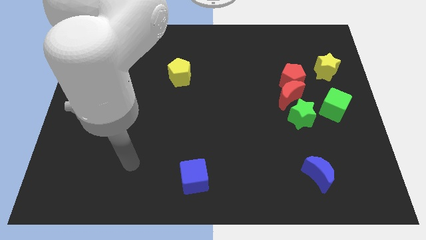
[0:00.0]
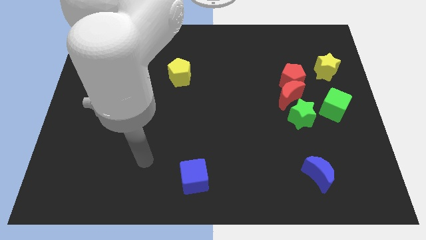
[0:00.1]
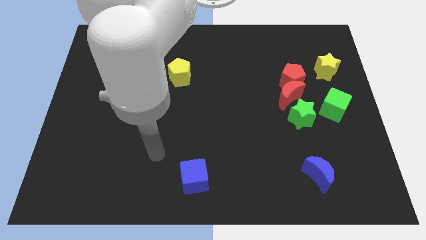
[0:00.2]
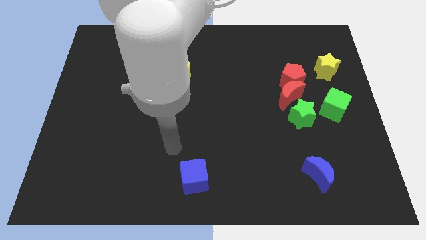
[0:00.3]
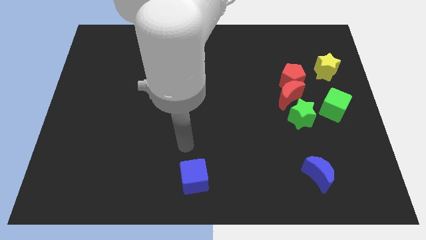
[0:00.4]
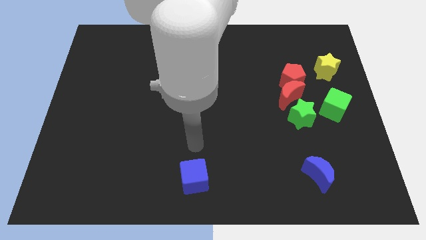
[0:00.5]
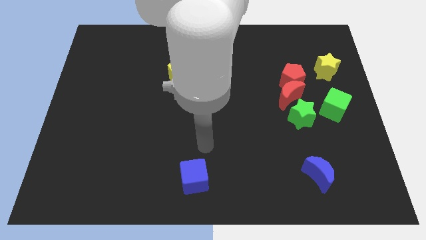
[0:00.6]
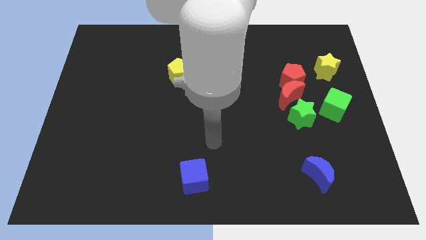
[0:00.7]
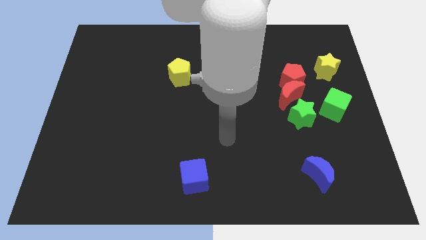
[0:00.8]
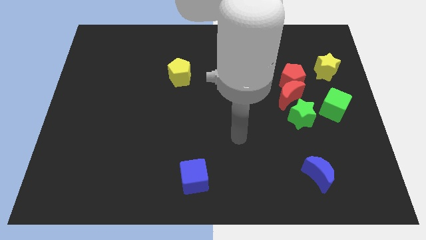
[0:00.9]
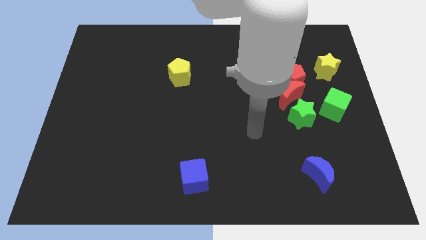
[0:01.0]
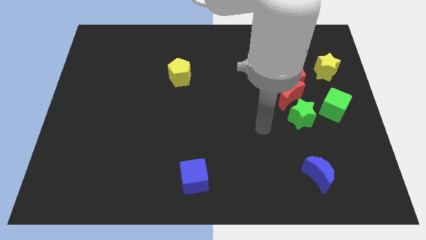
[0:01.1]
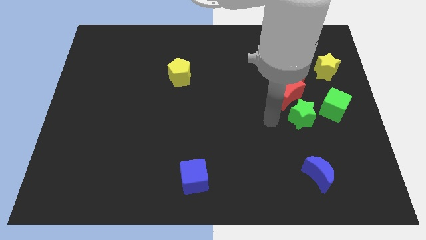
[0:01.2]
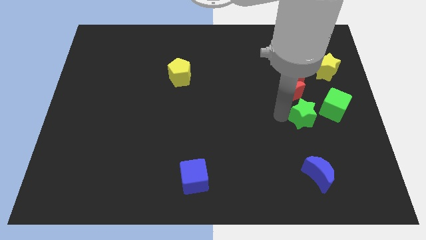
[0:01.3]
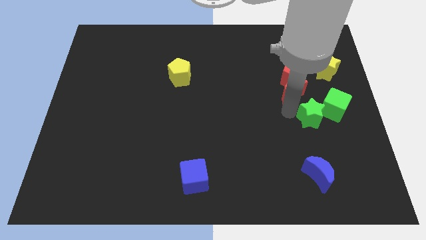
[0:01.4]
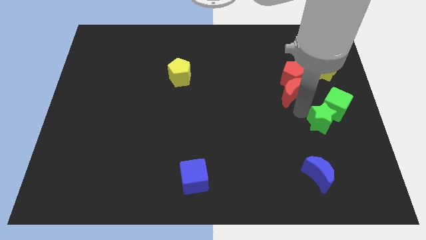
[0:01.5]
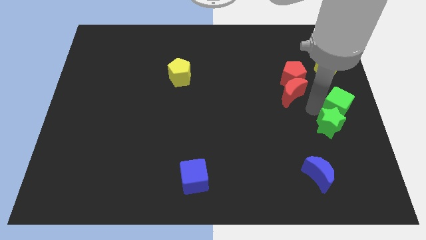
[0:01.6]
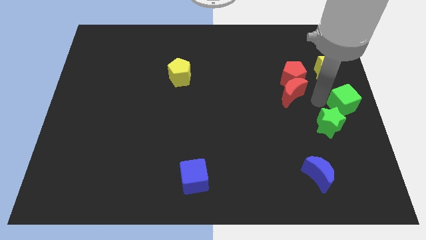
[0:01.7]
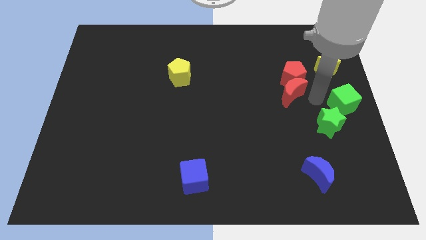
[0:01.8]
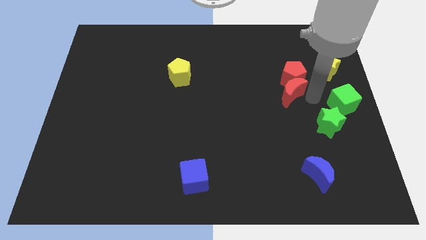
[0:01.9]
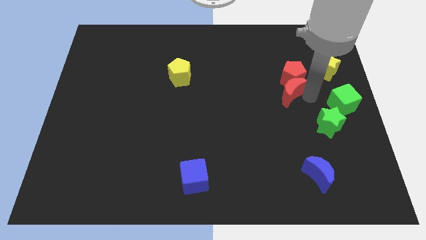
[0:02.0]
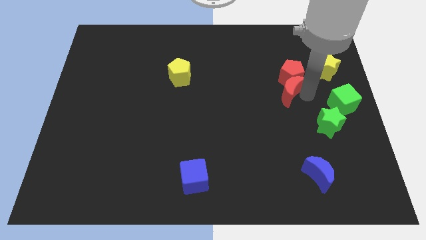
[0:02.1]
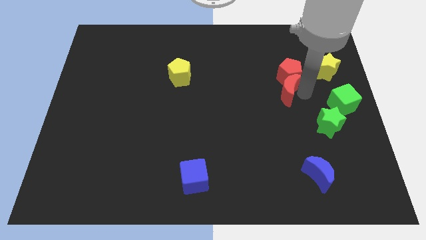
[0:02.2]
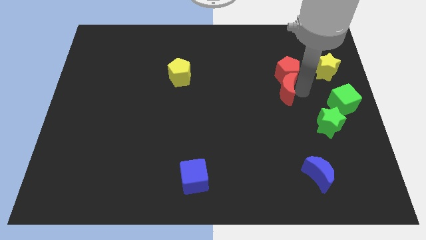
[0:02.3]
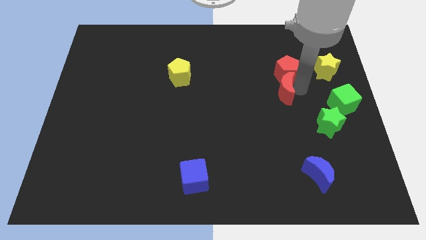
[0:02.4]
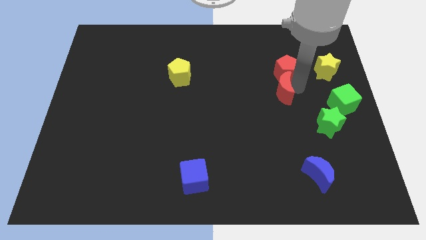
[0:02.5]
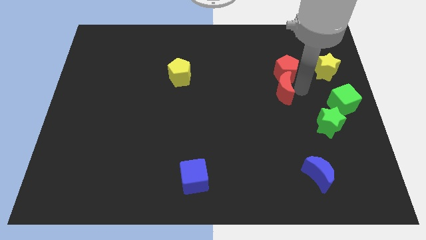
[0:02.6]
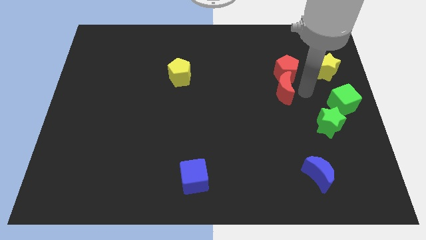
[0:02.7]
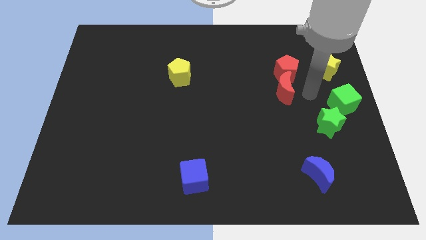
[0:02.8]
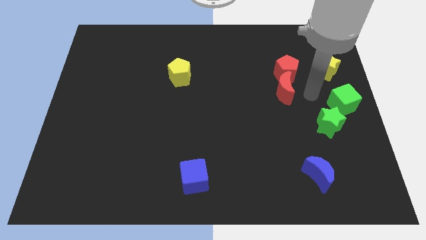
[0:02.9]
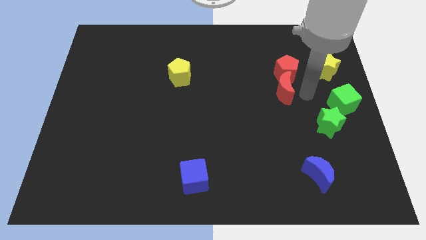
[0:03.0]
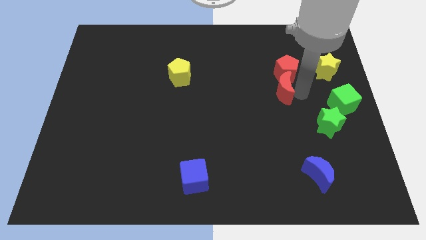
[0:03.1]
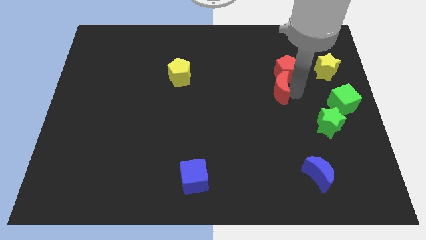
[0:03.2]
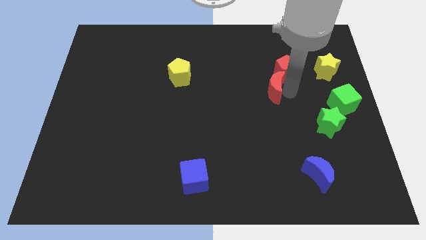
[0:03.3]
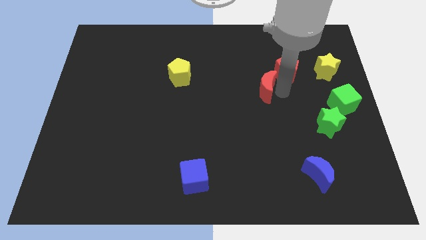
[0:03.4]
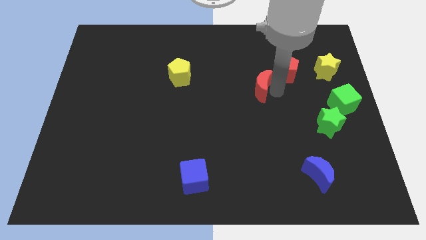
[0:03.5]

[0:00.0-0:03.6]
pull the red moon apart from the red pentagon and green star

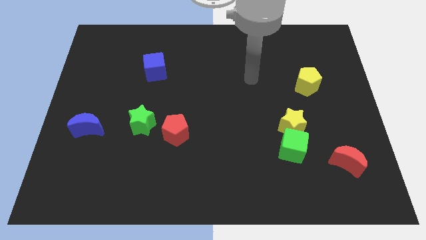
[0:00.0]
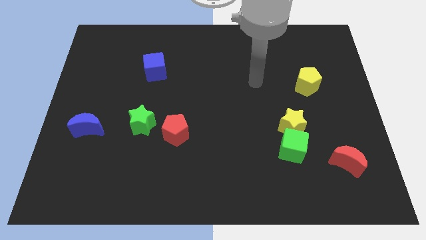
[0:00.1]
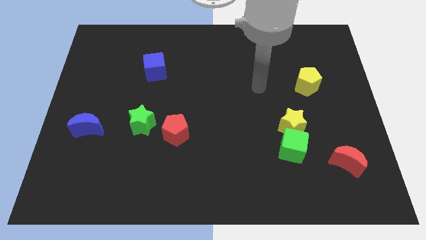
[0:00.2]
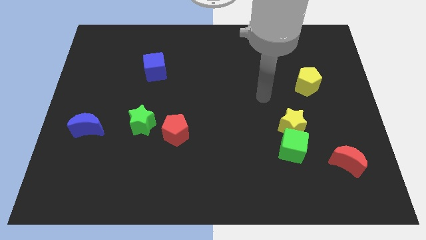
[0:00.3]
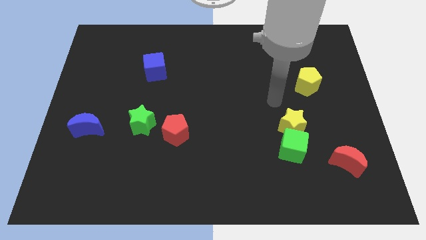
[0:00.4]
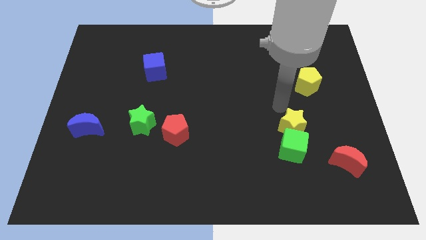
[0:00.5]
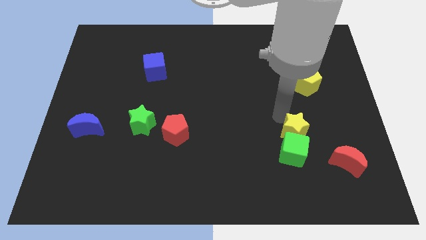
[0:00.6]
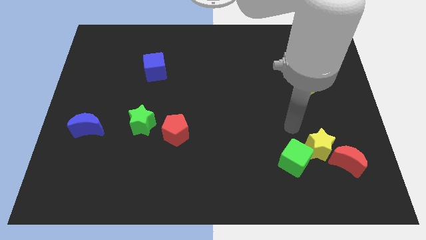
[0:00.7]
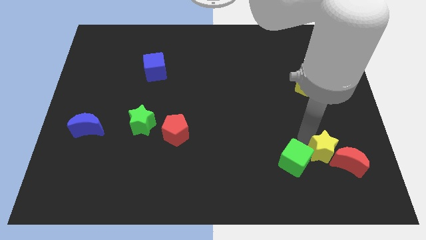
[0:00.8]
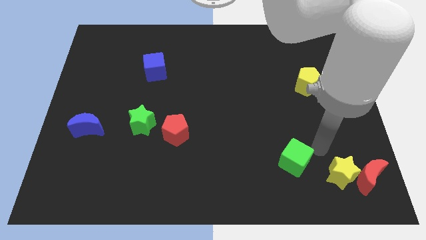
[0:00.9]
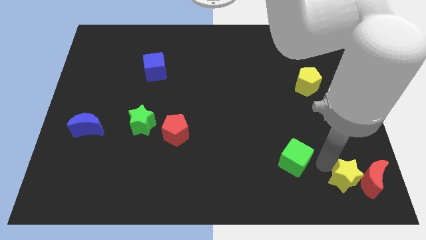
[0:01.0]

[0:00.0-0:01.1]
pull the green cube apart from the yellow star

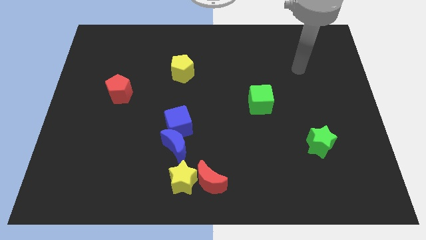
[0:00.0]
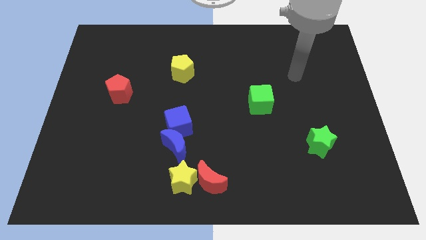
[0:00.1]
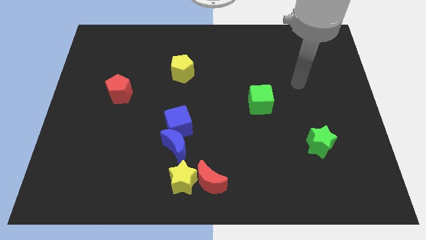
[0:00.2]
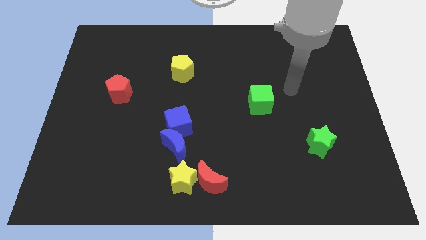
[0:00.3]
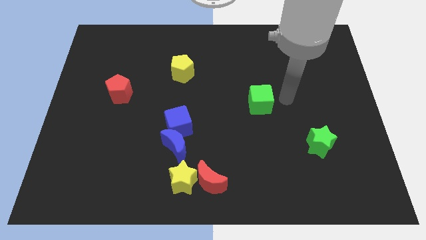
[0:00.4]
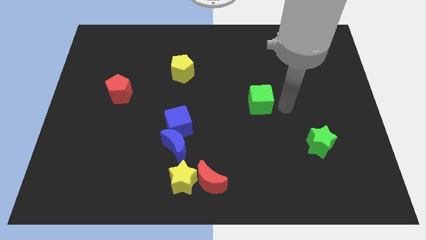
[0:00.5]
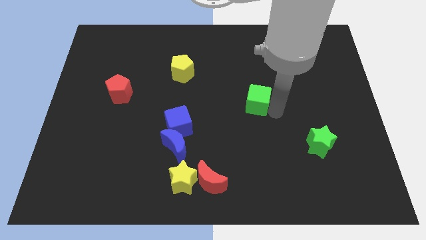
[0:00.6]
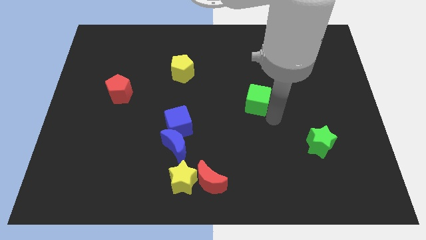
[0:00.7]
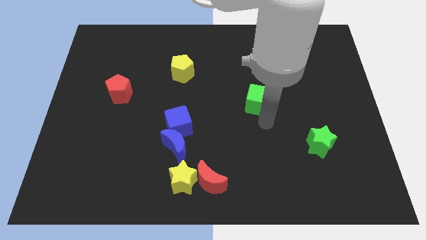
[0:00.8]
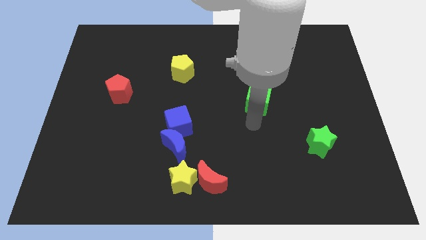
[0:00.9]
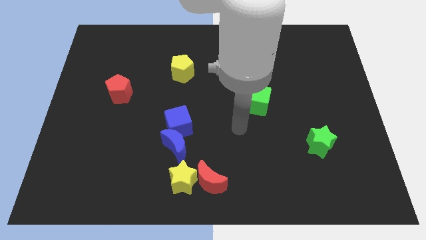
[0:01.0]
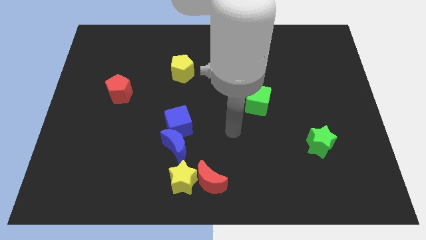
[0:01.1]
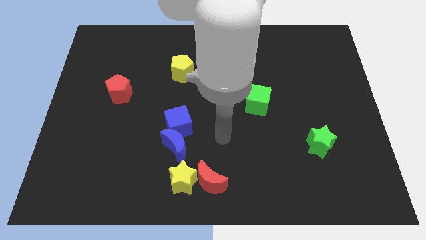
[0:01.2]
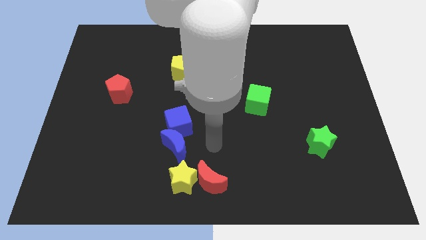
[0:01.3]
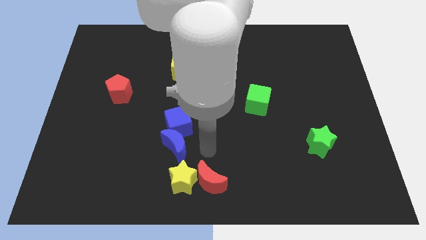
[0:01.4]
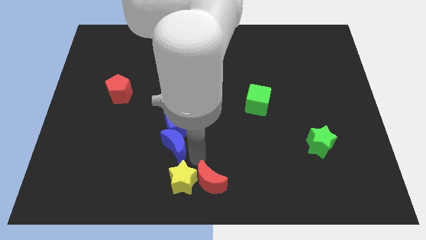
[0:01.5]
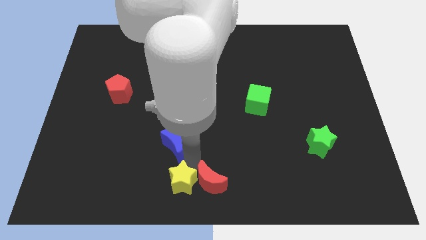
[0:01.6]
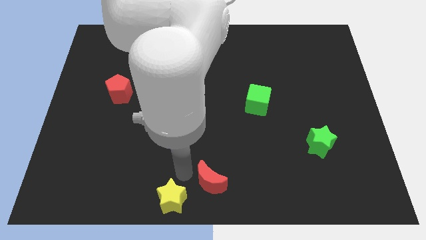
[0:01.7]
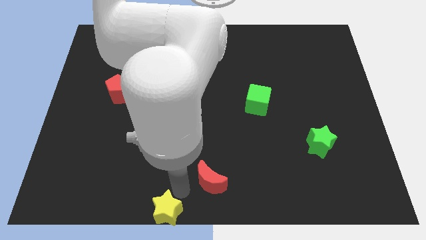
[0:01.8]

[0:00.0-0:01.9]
pull the red moon apart from the yellow star

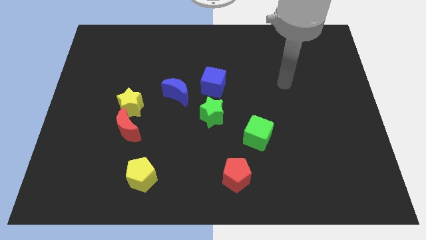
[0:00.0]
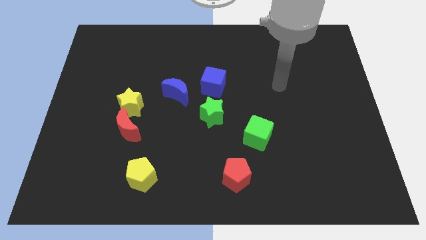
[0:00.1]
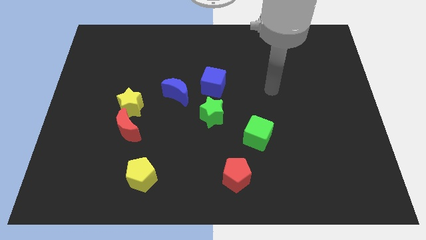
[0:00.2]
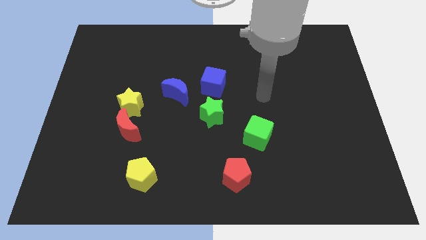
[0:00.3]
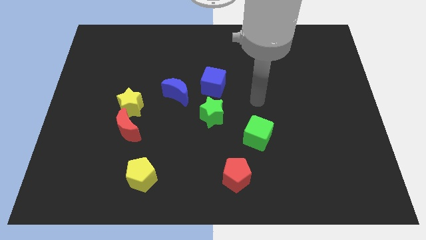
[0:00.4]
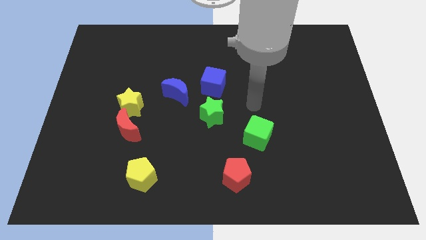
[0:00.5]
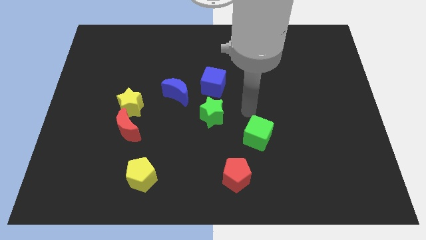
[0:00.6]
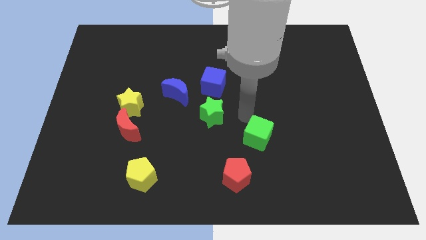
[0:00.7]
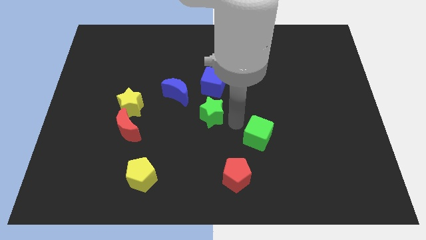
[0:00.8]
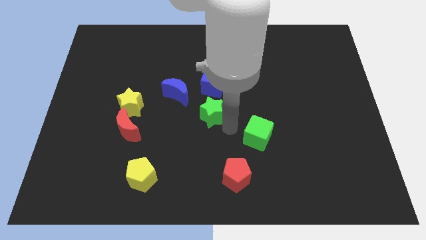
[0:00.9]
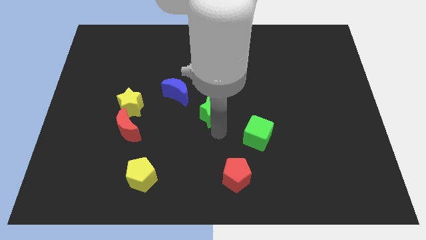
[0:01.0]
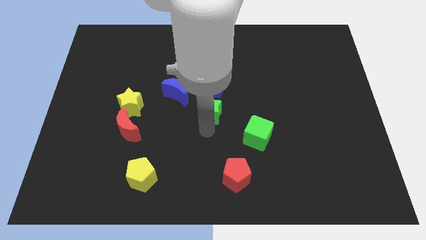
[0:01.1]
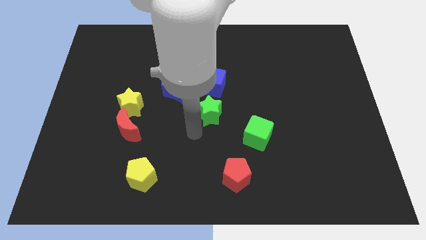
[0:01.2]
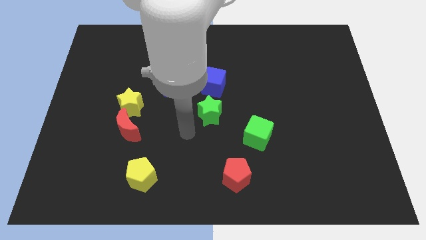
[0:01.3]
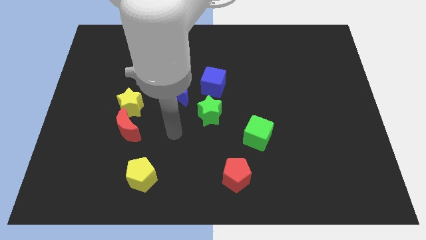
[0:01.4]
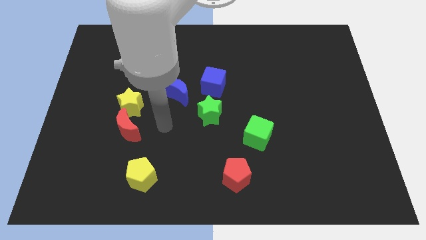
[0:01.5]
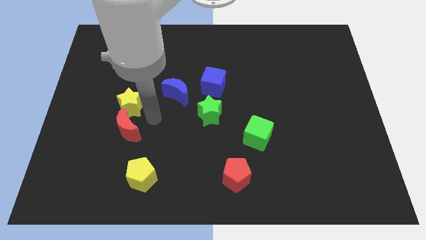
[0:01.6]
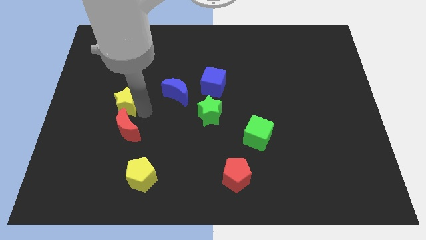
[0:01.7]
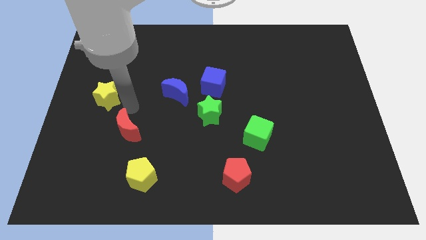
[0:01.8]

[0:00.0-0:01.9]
move the red moon away from the yellow star

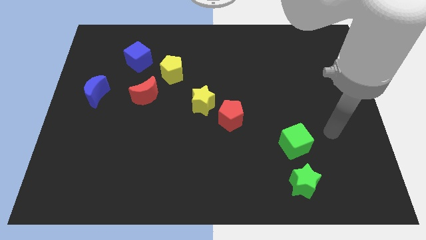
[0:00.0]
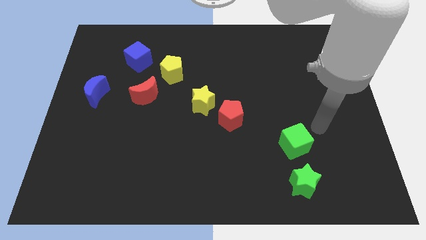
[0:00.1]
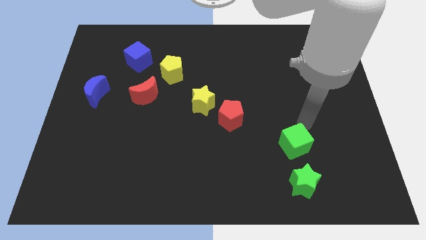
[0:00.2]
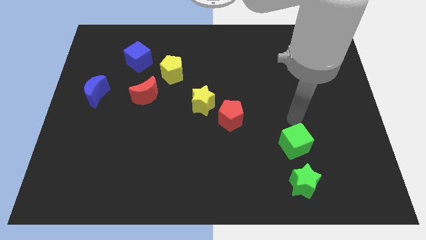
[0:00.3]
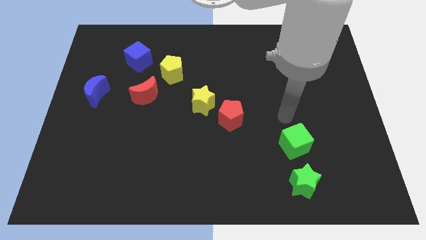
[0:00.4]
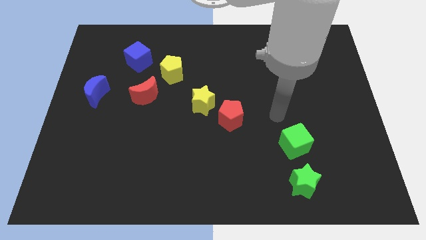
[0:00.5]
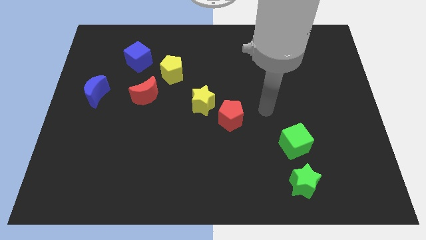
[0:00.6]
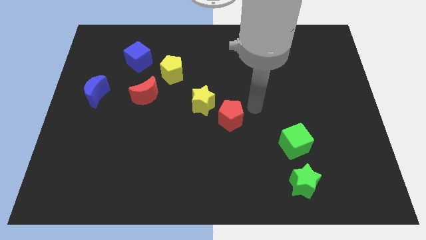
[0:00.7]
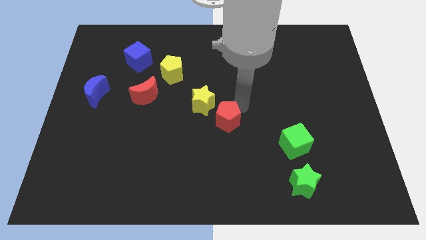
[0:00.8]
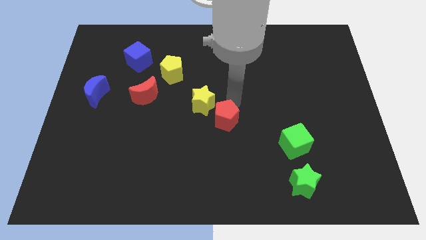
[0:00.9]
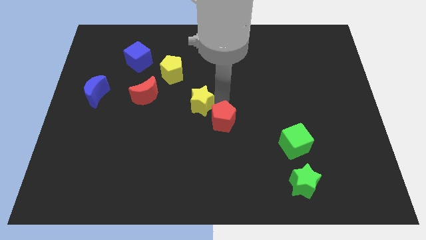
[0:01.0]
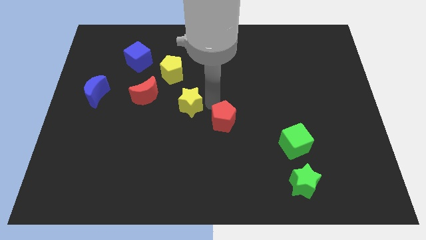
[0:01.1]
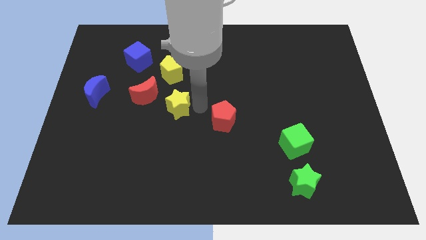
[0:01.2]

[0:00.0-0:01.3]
pull the red pentagon apart from the yellow star
